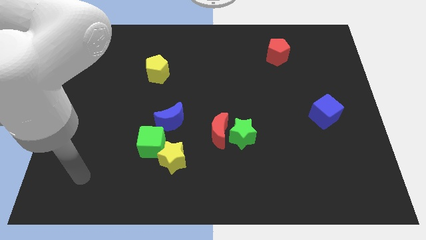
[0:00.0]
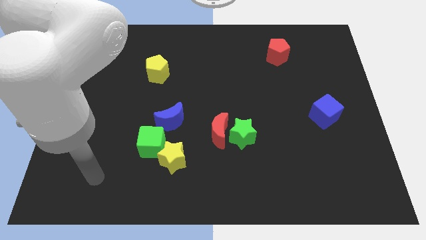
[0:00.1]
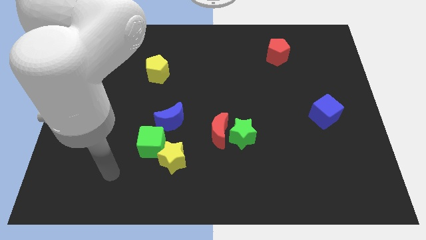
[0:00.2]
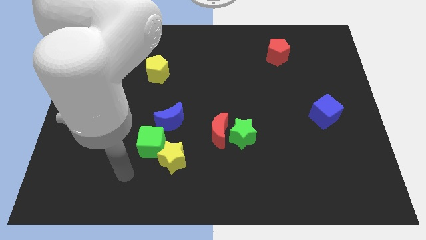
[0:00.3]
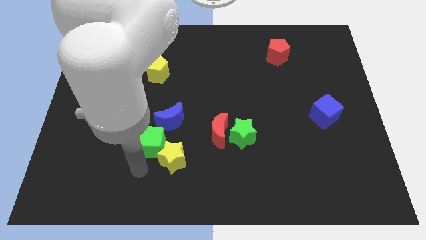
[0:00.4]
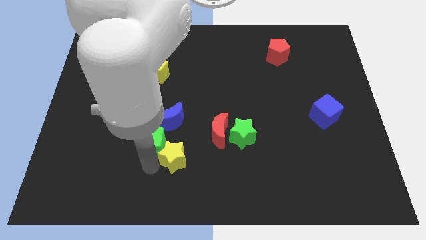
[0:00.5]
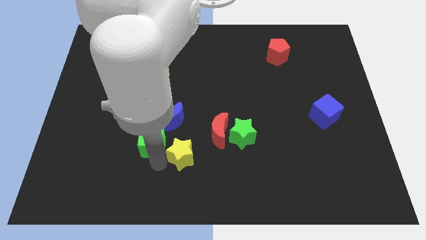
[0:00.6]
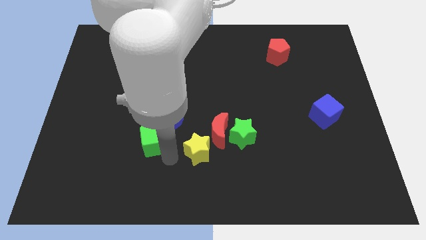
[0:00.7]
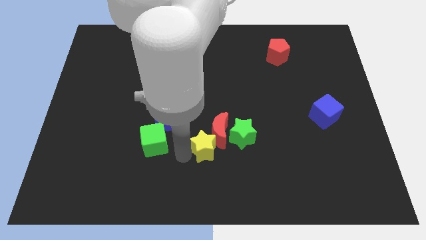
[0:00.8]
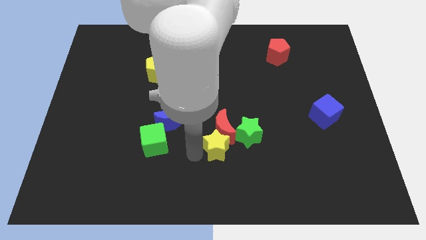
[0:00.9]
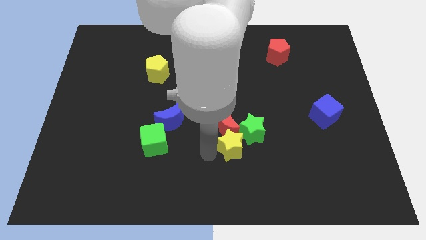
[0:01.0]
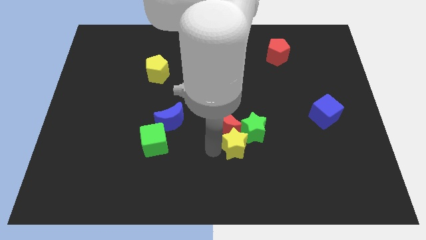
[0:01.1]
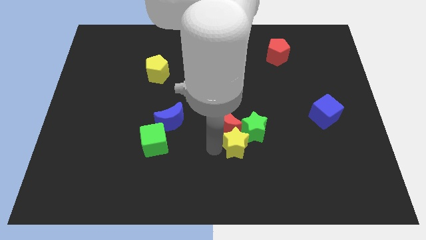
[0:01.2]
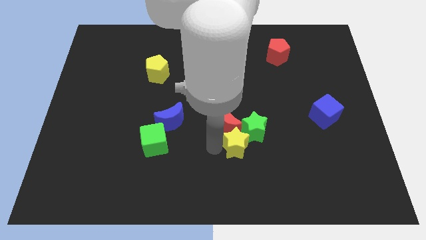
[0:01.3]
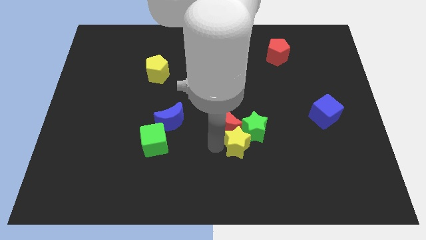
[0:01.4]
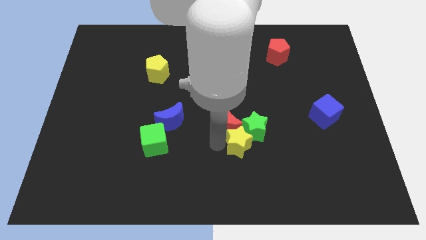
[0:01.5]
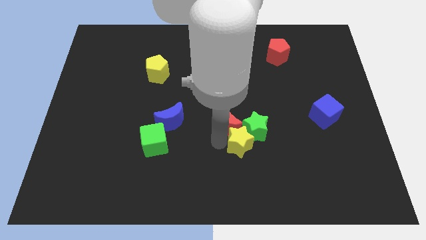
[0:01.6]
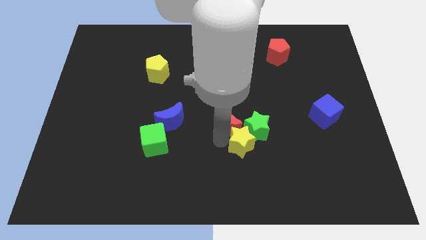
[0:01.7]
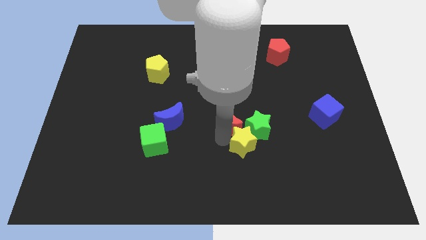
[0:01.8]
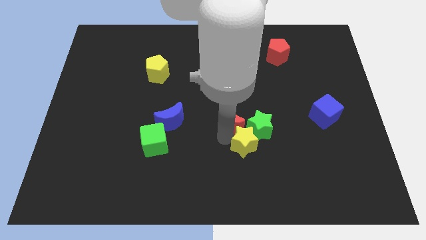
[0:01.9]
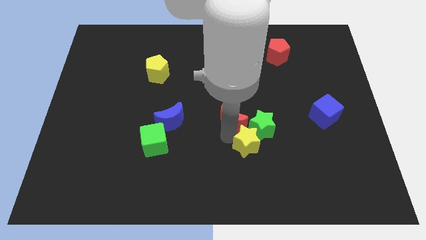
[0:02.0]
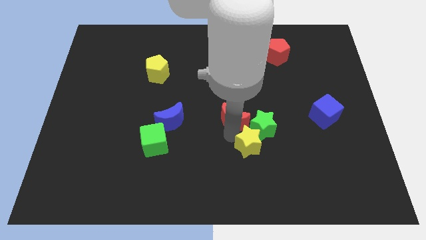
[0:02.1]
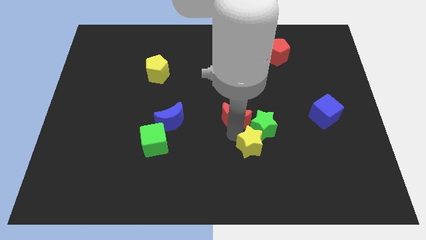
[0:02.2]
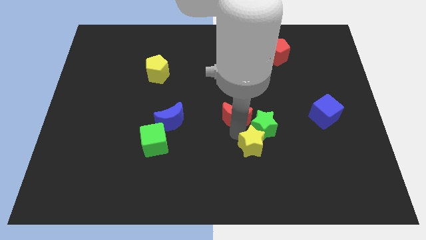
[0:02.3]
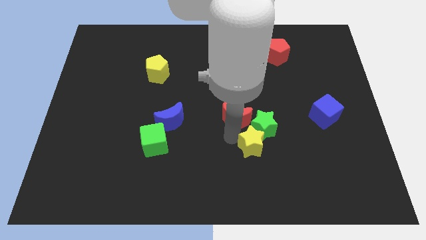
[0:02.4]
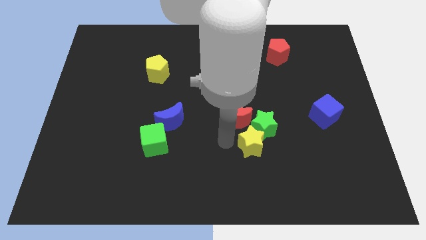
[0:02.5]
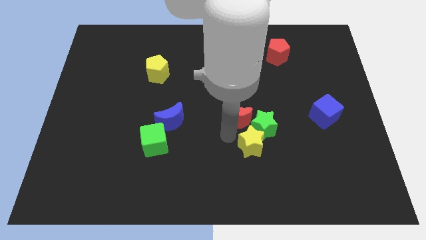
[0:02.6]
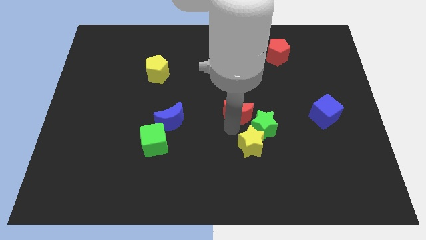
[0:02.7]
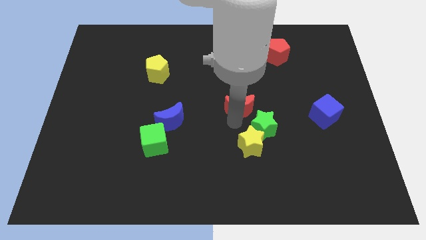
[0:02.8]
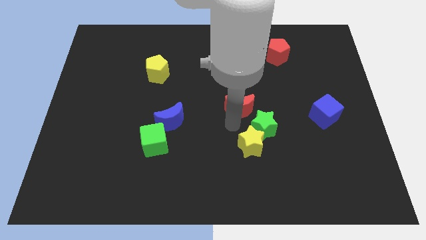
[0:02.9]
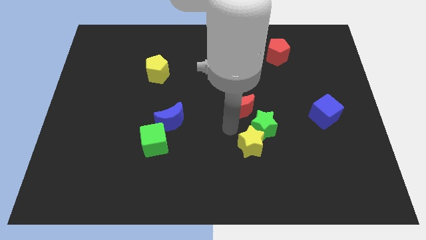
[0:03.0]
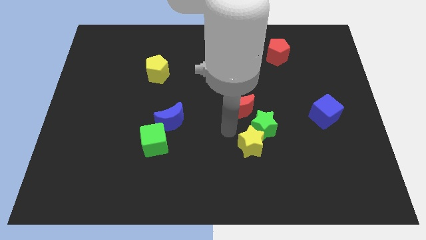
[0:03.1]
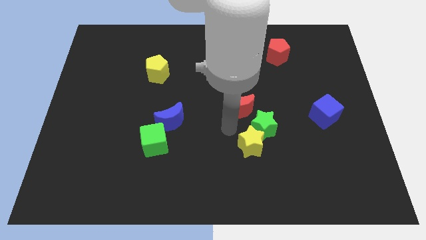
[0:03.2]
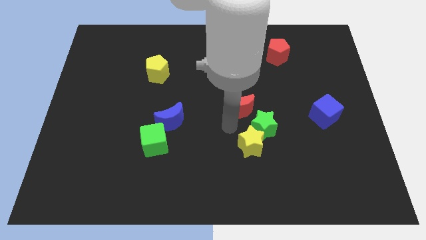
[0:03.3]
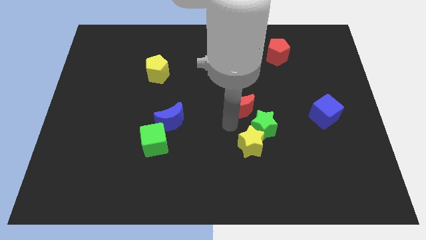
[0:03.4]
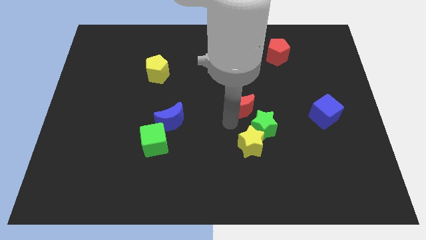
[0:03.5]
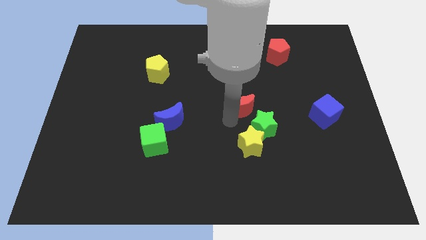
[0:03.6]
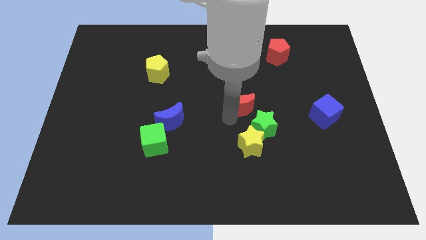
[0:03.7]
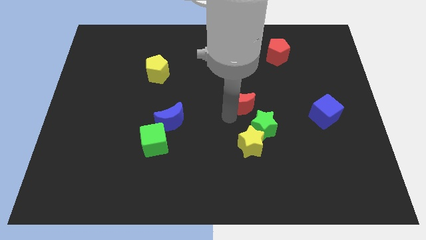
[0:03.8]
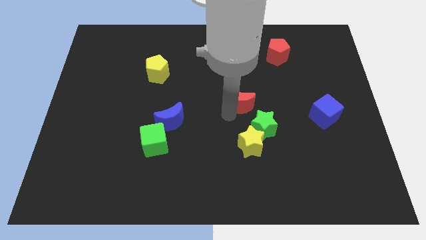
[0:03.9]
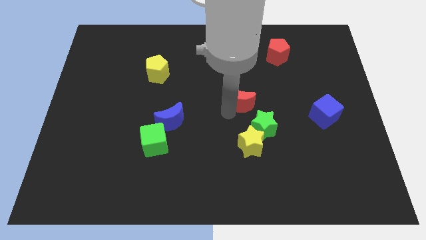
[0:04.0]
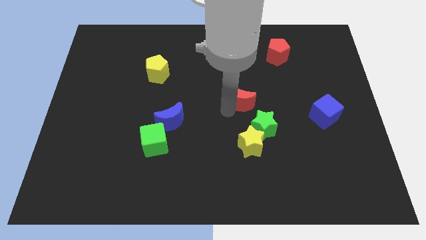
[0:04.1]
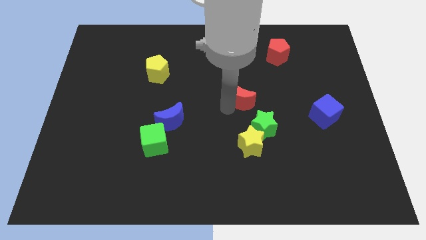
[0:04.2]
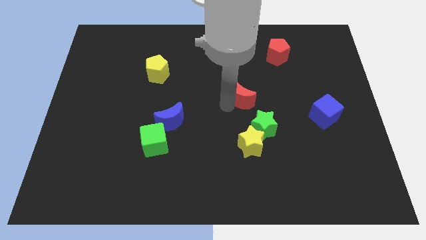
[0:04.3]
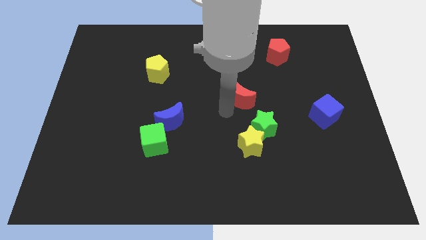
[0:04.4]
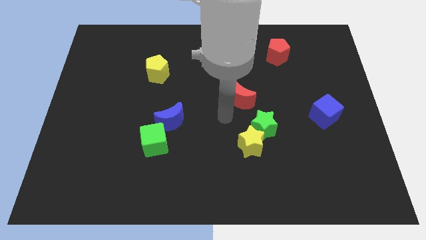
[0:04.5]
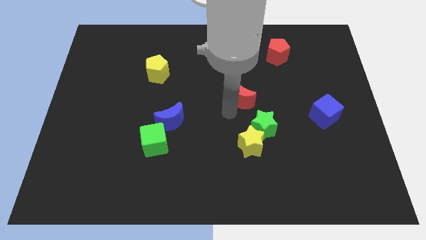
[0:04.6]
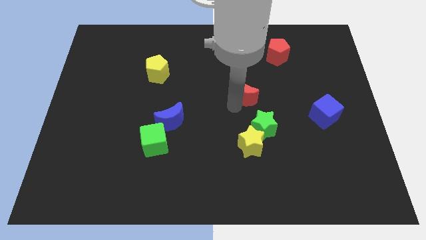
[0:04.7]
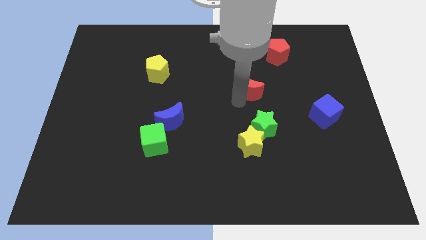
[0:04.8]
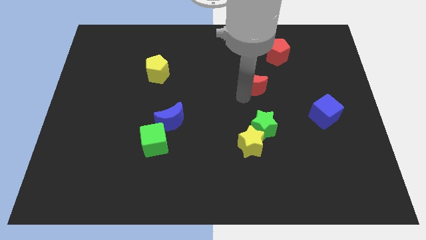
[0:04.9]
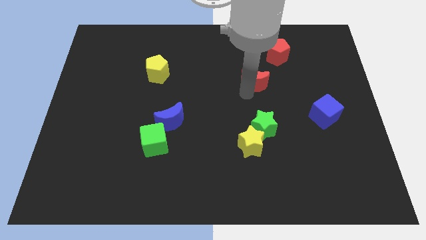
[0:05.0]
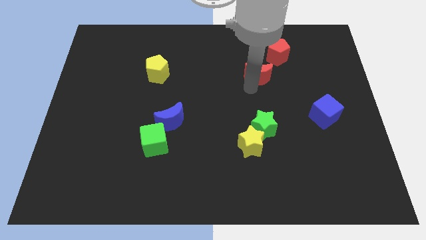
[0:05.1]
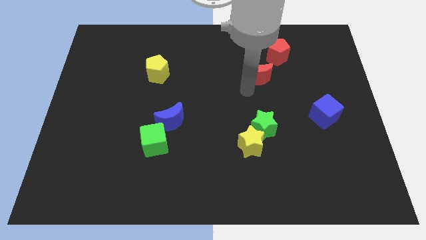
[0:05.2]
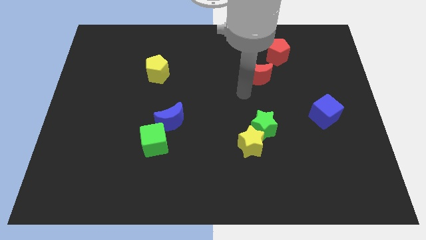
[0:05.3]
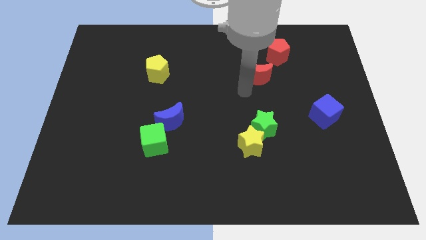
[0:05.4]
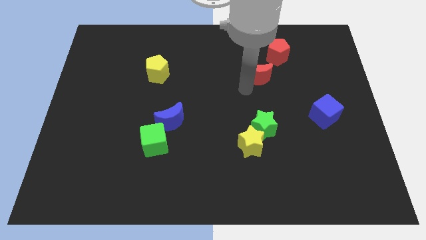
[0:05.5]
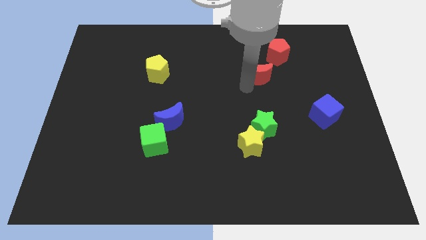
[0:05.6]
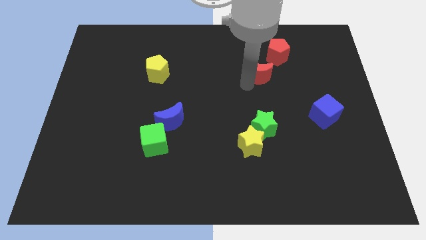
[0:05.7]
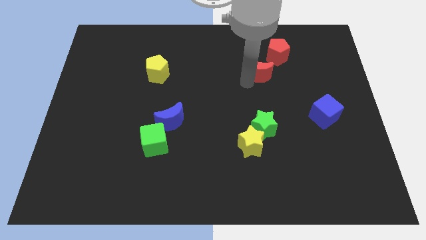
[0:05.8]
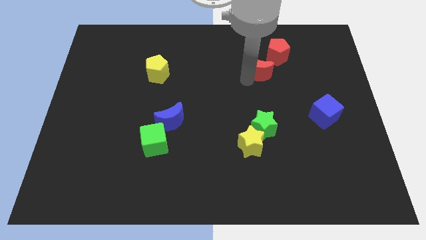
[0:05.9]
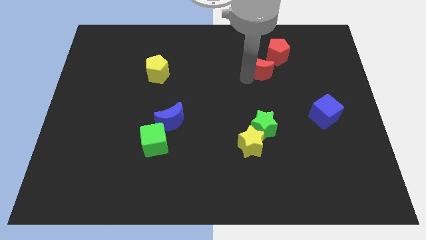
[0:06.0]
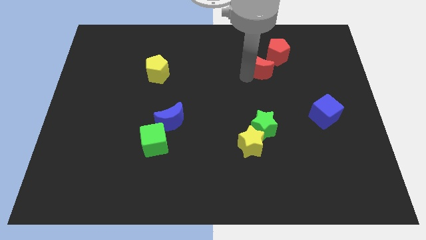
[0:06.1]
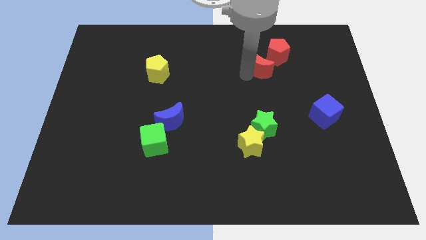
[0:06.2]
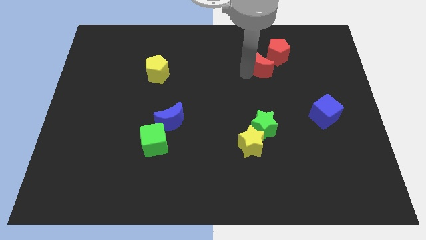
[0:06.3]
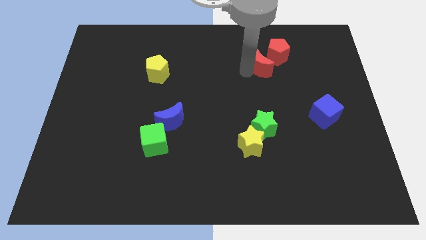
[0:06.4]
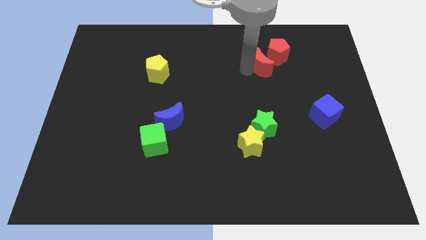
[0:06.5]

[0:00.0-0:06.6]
move the red moon to the red pentagon

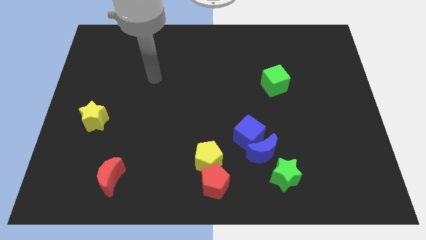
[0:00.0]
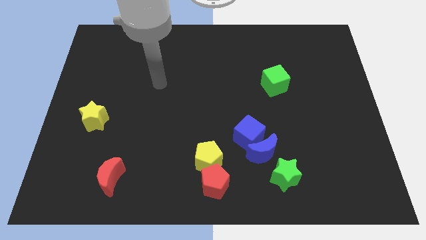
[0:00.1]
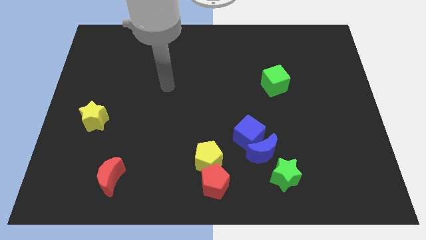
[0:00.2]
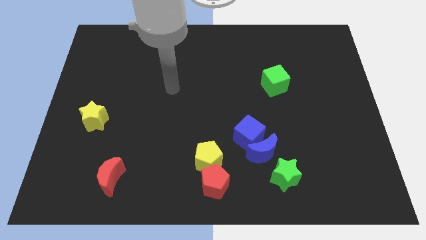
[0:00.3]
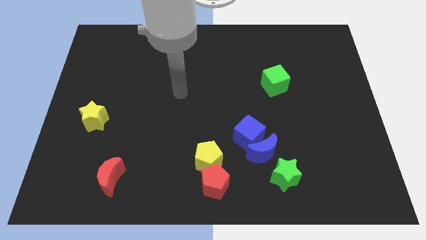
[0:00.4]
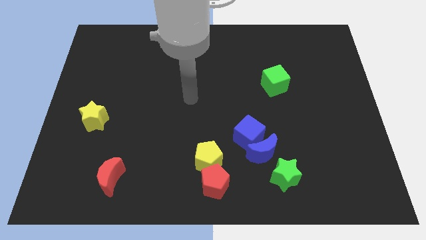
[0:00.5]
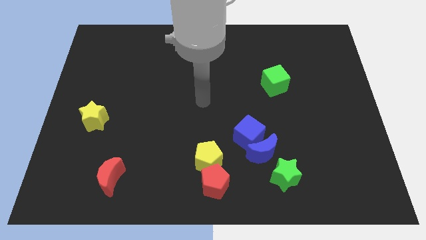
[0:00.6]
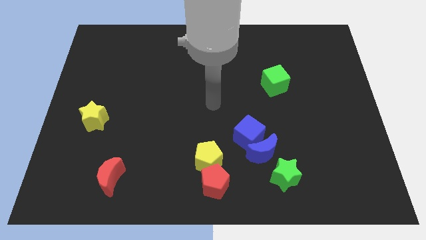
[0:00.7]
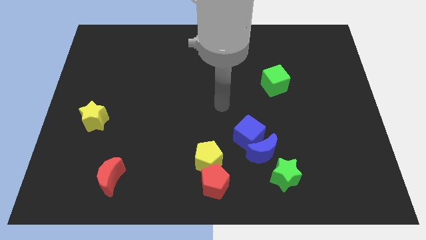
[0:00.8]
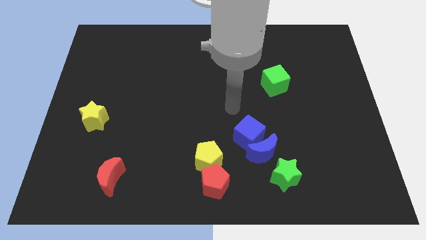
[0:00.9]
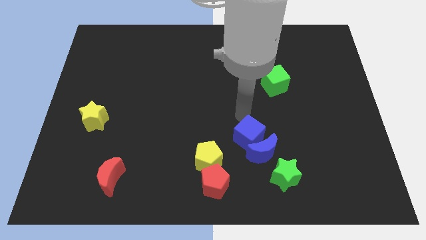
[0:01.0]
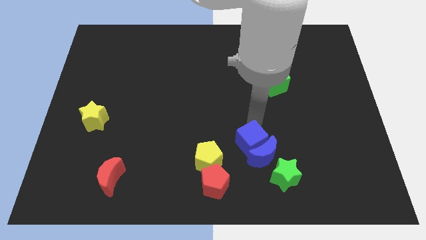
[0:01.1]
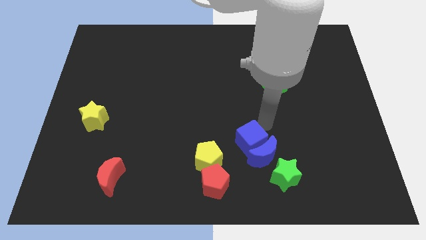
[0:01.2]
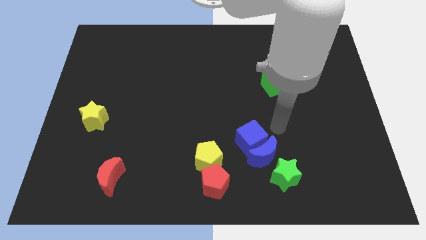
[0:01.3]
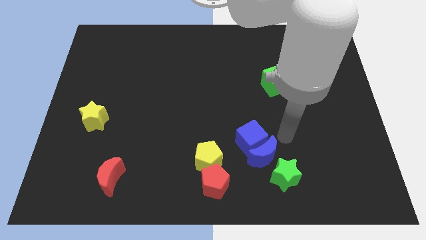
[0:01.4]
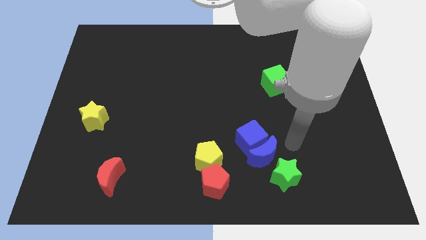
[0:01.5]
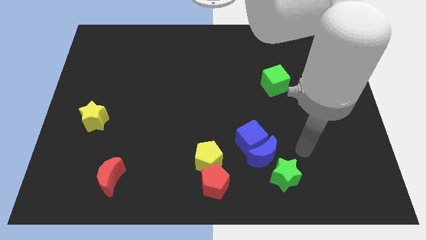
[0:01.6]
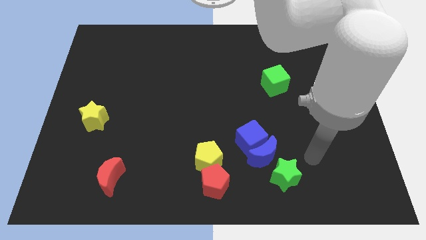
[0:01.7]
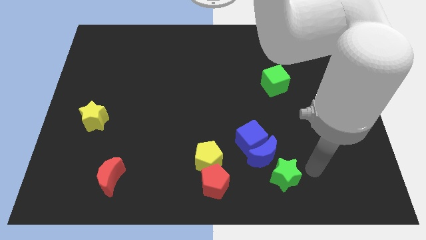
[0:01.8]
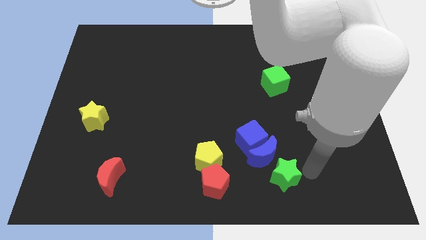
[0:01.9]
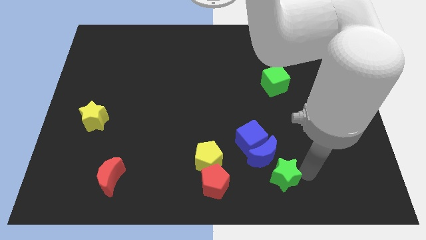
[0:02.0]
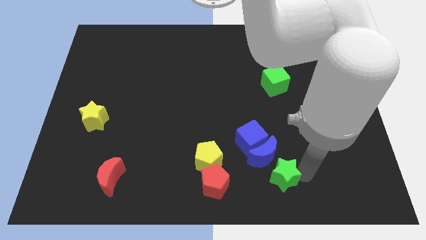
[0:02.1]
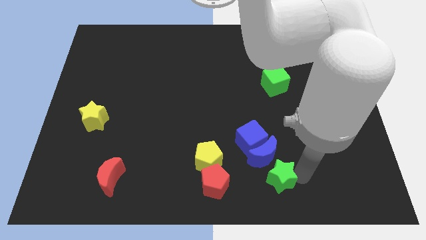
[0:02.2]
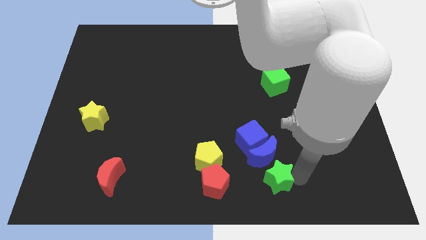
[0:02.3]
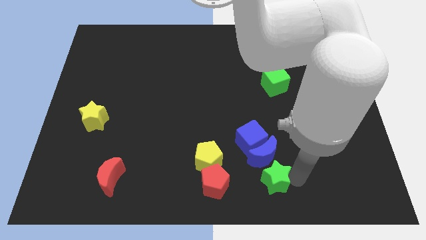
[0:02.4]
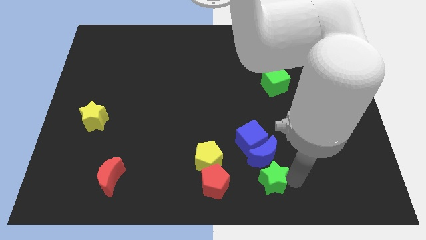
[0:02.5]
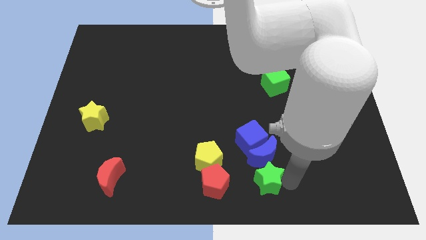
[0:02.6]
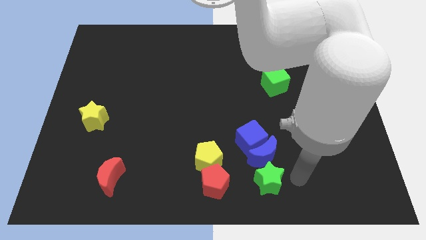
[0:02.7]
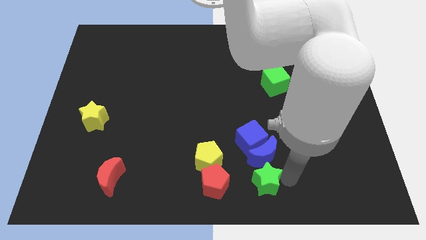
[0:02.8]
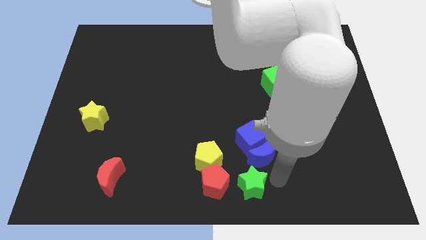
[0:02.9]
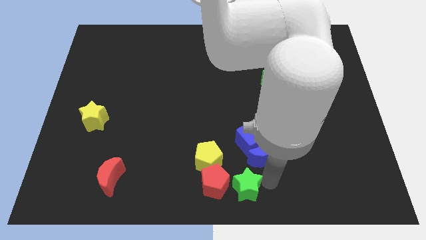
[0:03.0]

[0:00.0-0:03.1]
slide the green star to the red pentagon
